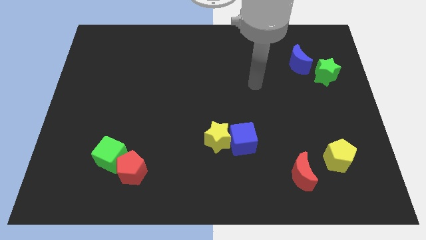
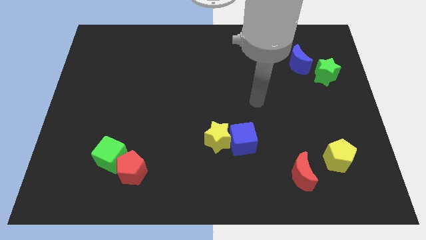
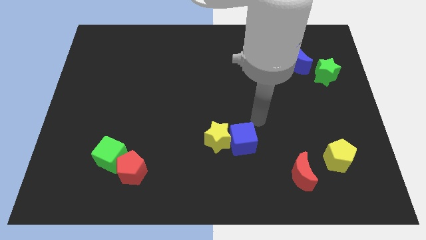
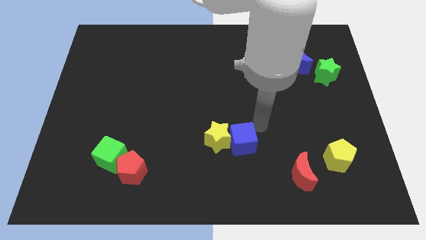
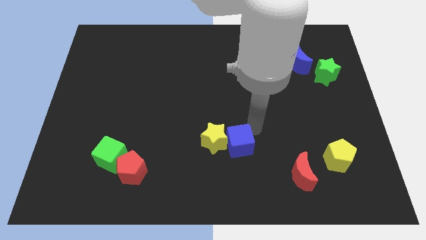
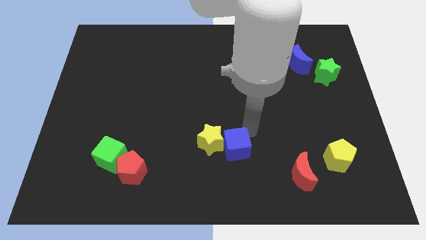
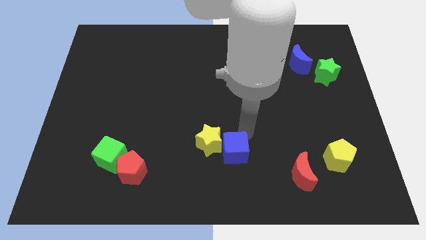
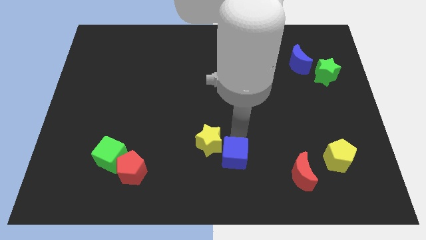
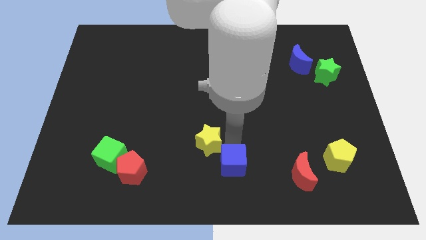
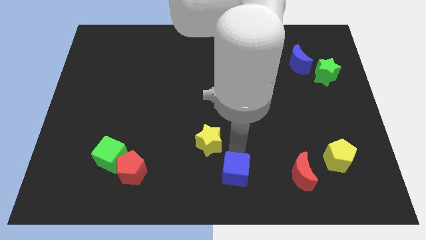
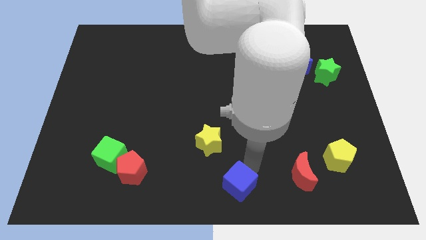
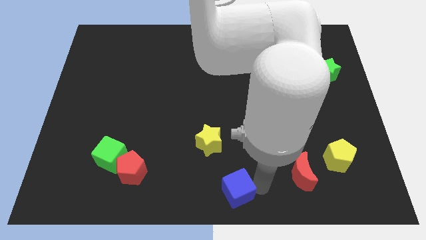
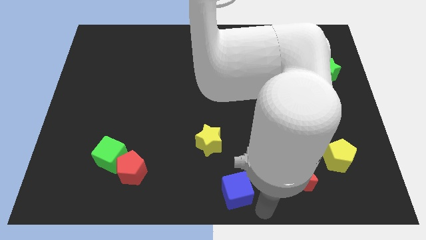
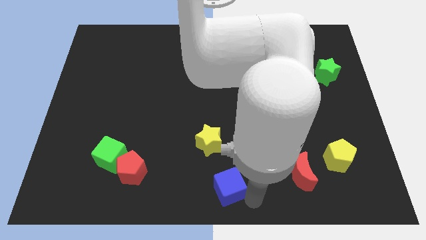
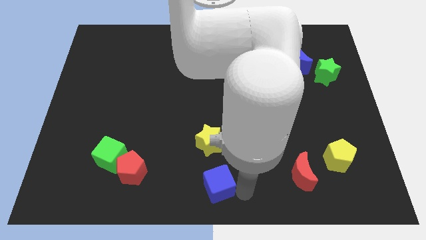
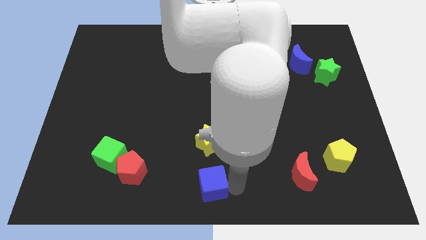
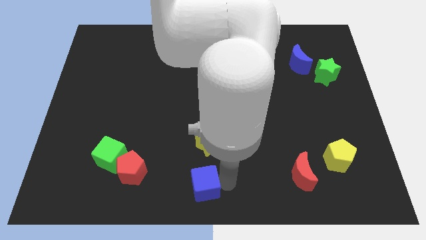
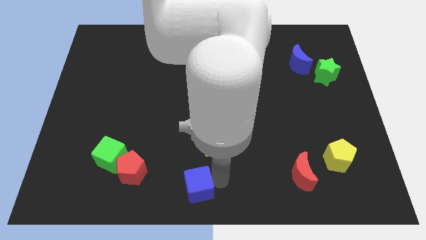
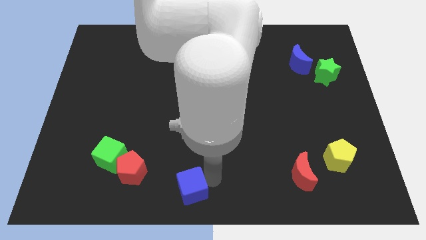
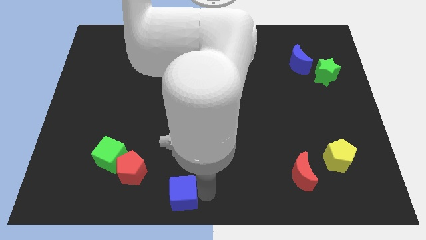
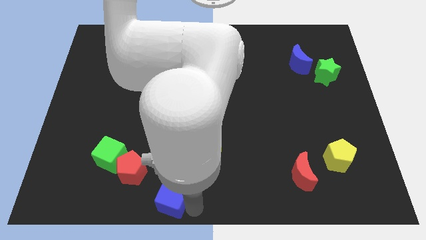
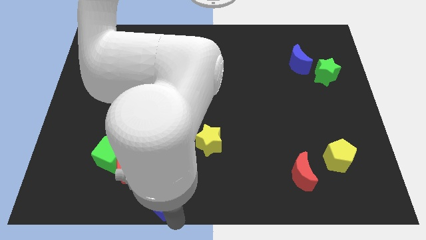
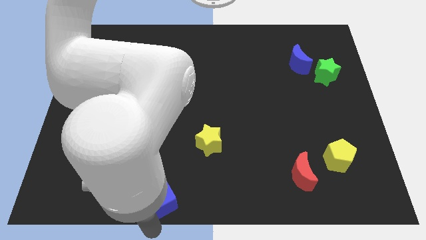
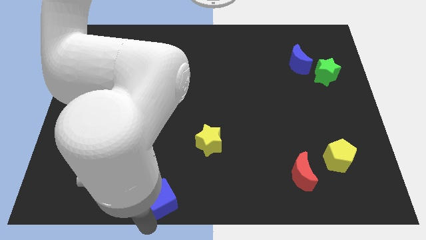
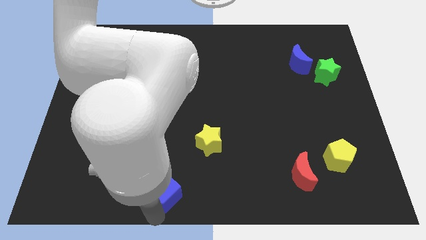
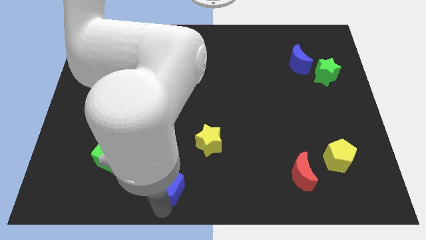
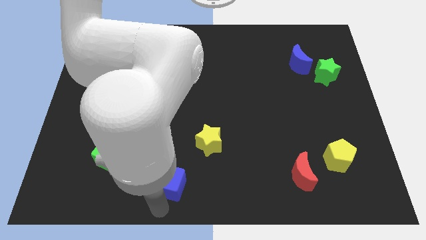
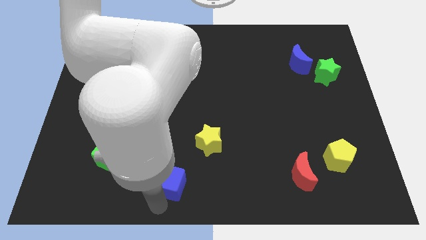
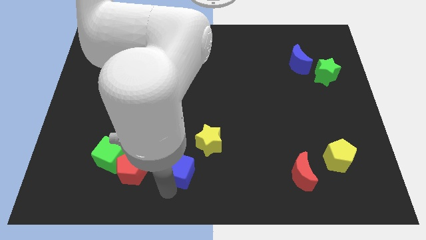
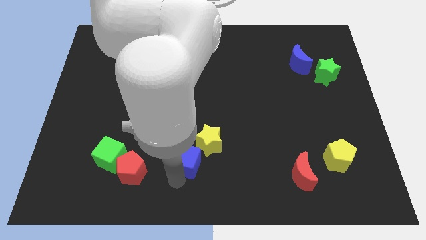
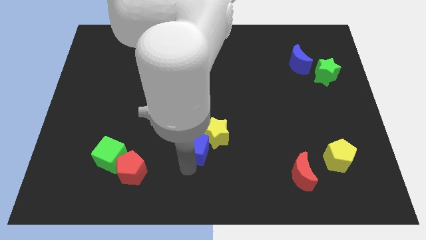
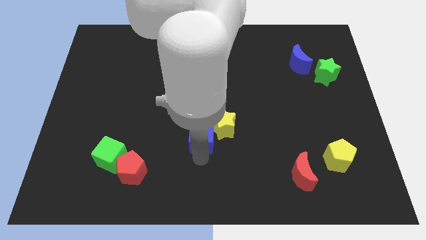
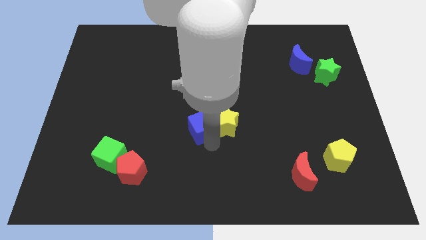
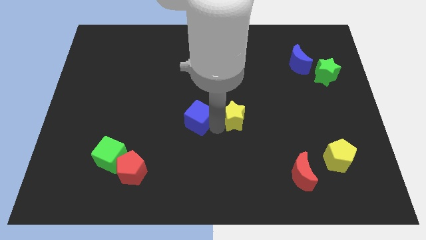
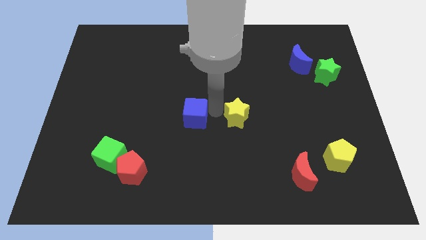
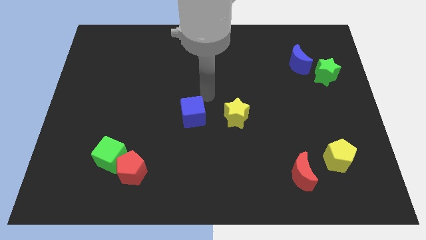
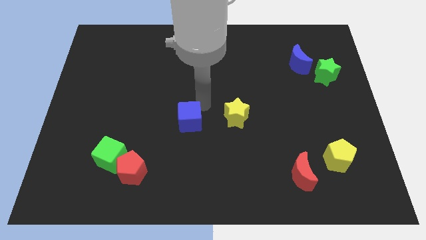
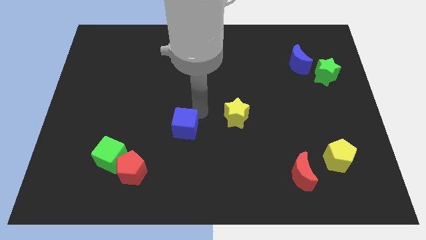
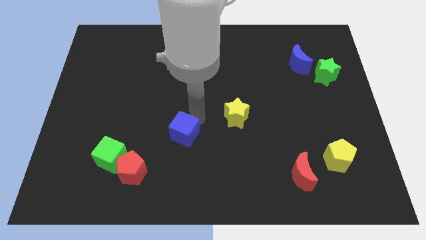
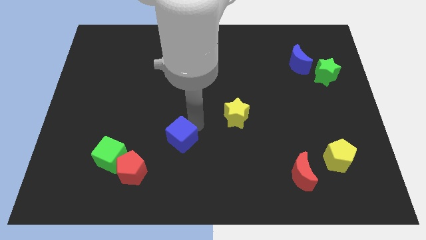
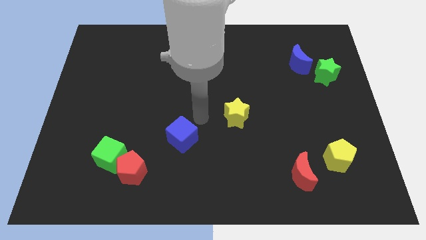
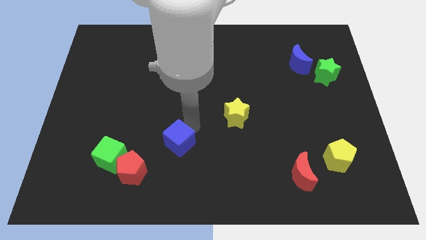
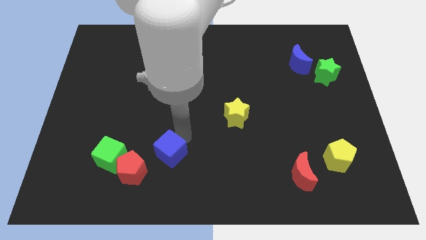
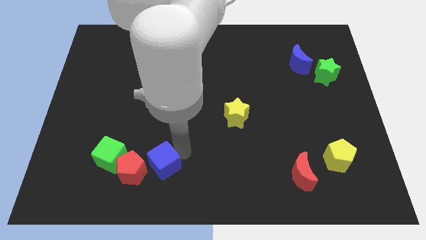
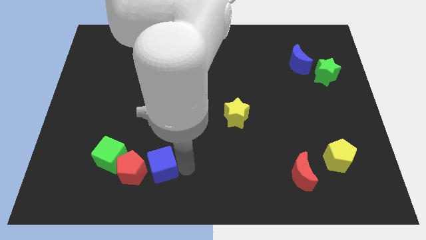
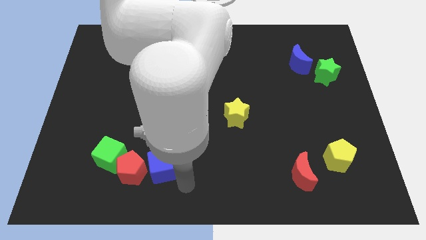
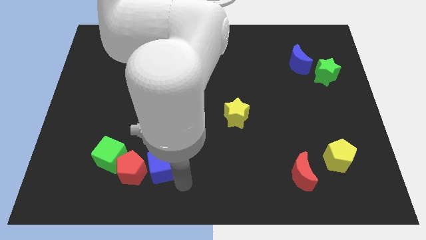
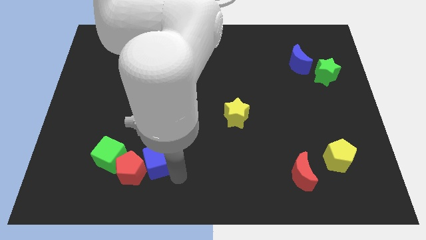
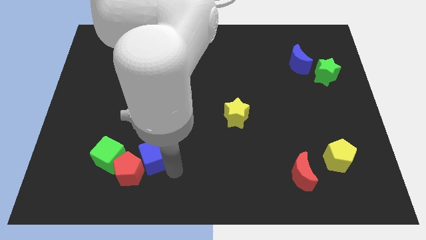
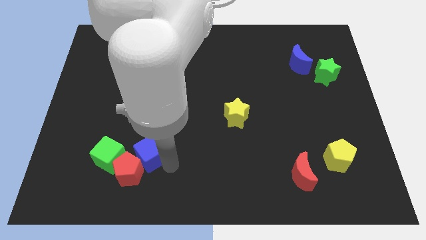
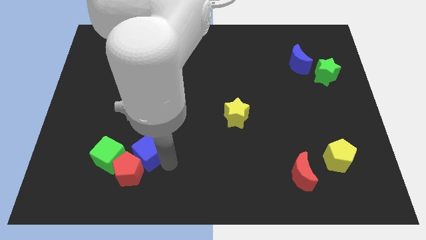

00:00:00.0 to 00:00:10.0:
push the blue cube to the left

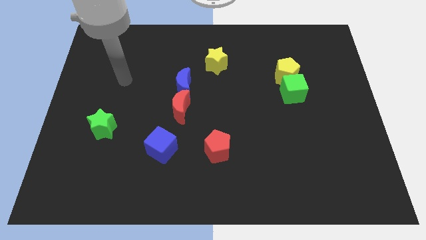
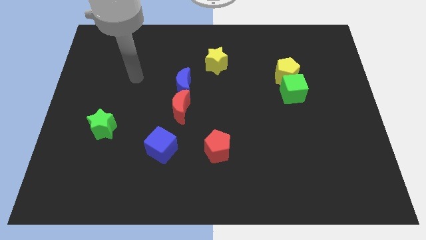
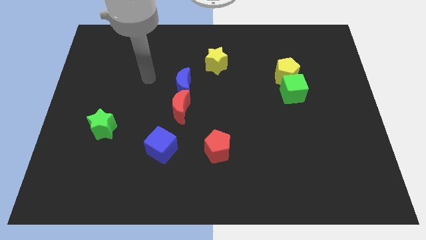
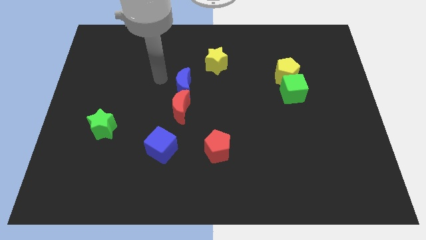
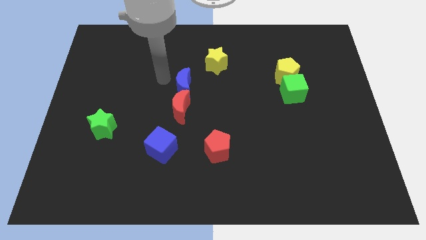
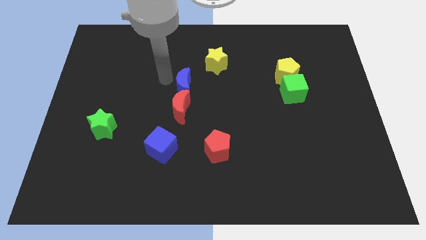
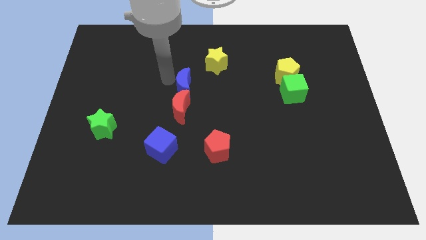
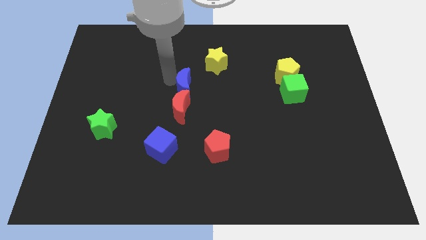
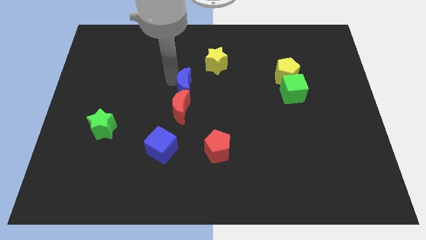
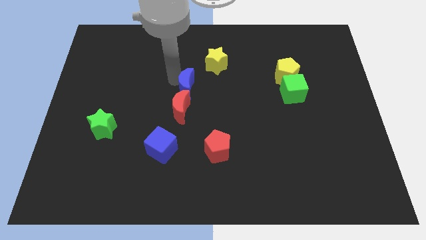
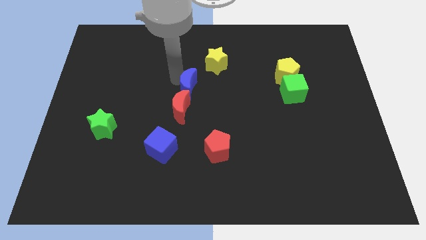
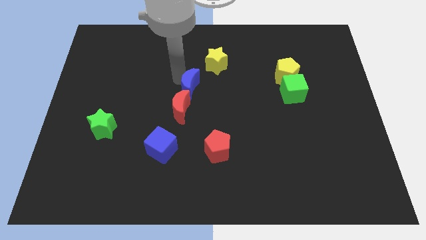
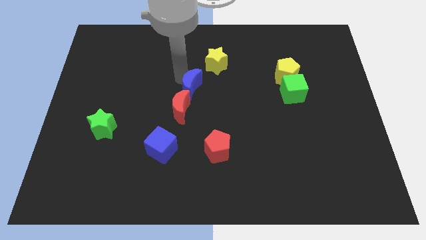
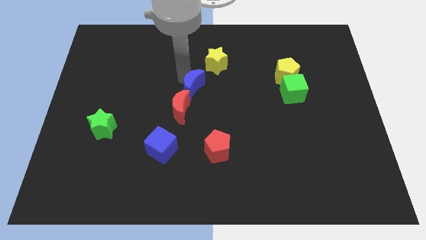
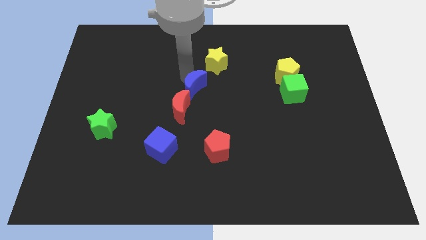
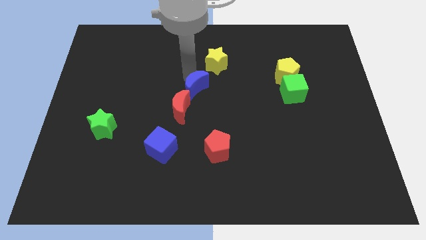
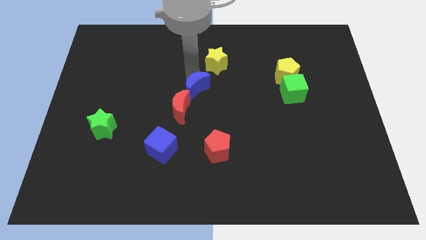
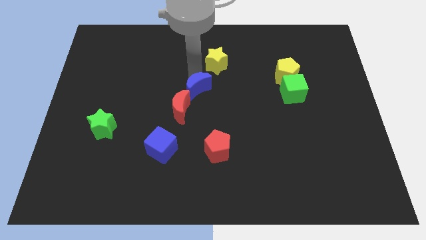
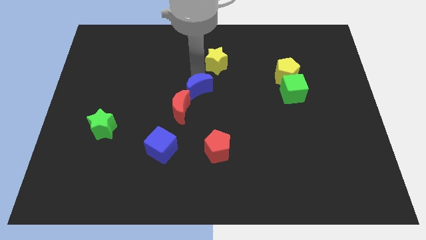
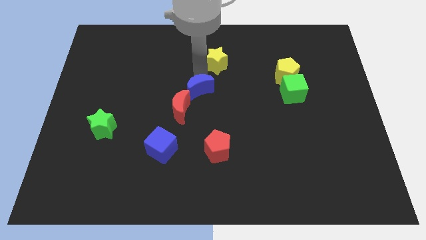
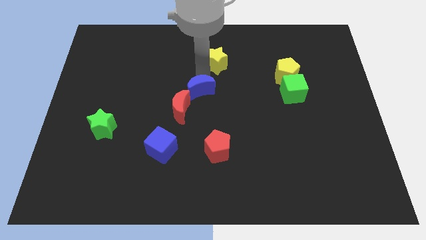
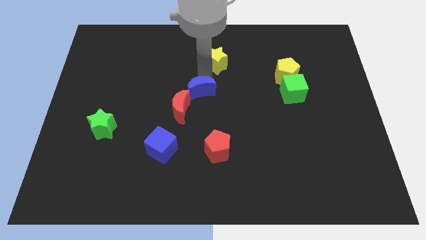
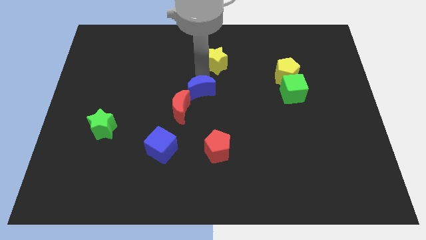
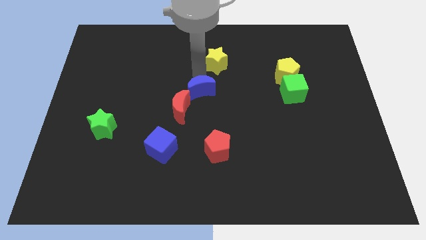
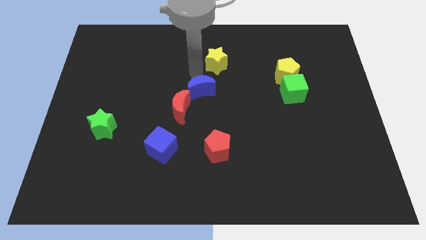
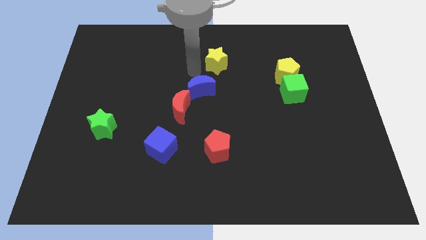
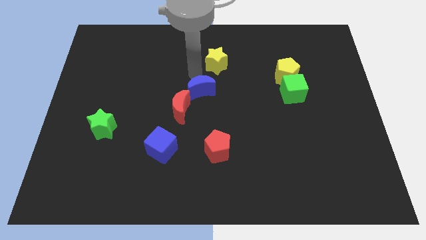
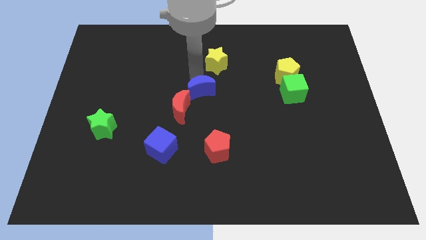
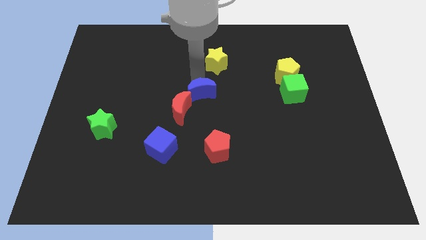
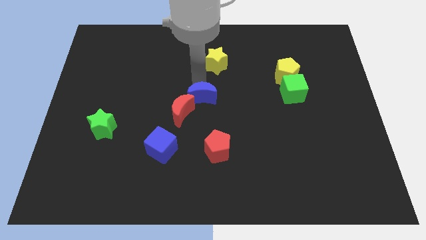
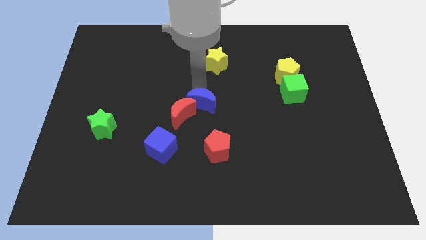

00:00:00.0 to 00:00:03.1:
push the blue moon down and to the right diagonally a bit
